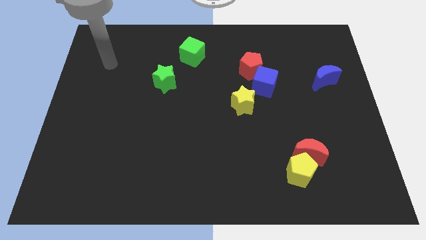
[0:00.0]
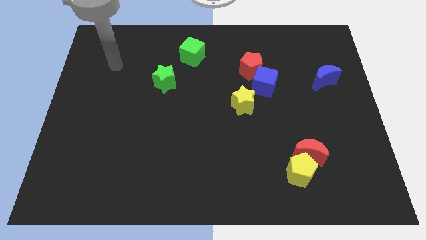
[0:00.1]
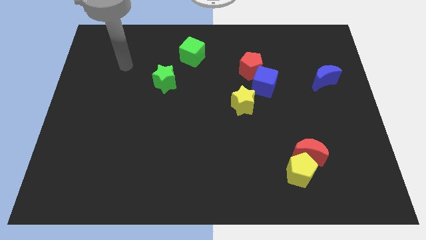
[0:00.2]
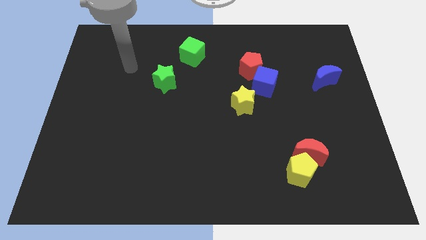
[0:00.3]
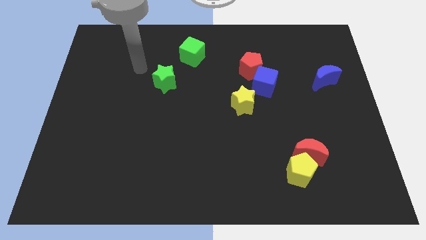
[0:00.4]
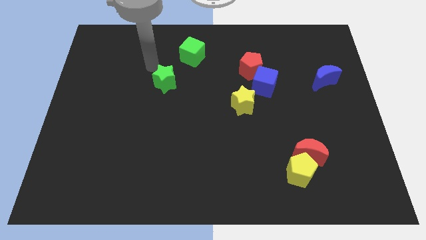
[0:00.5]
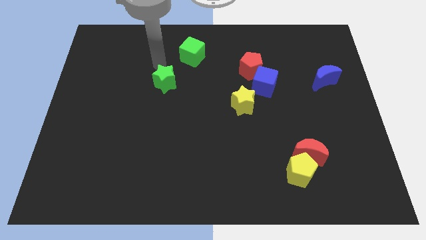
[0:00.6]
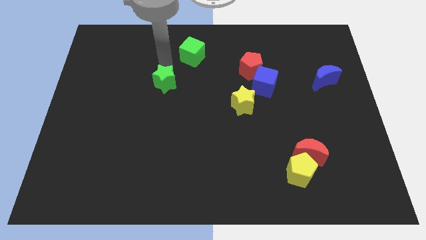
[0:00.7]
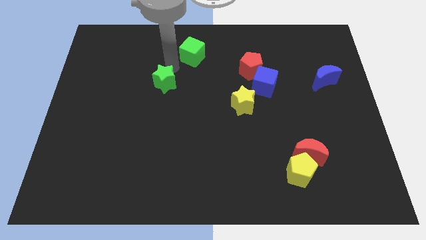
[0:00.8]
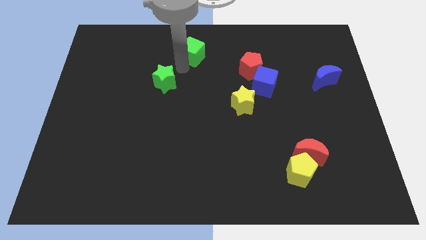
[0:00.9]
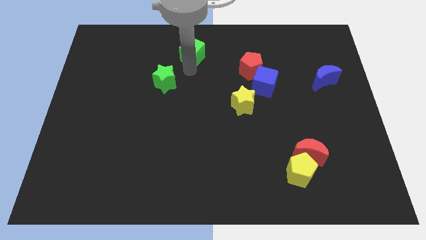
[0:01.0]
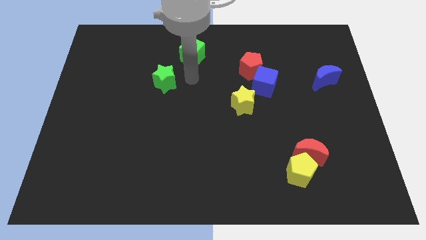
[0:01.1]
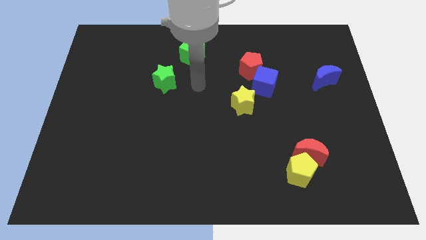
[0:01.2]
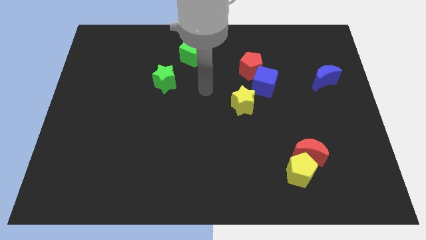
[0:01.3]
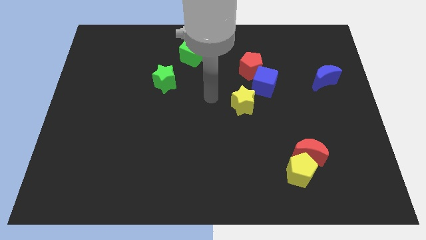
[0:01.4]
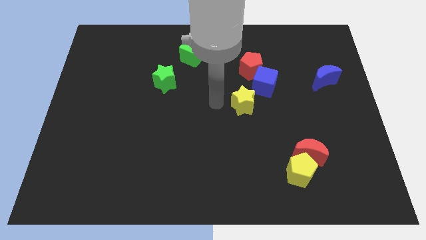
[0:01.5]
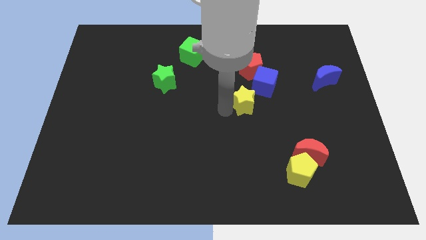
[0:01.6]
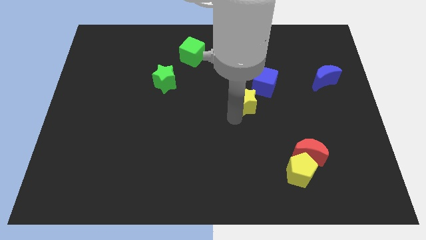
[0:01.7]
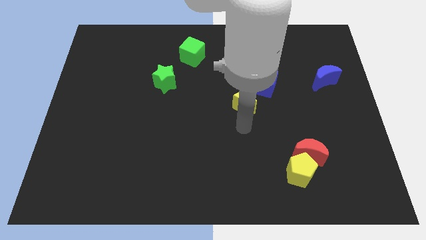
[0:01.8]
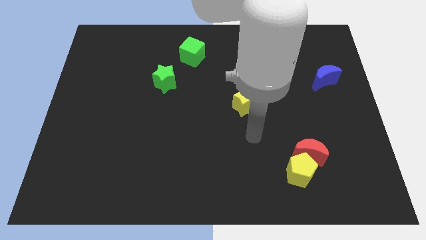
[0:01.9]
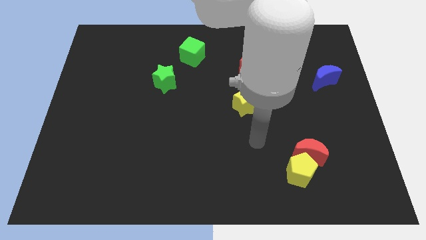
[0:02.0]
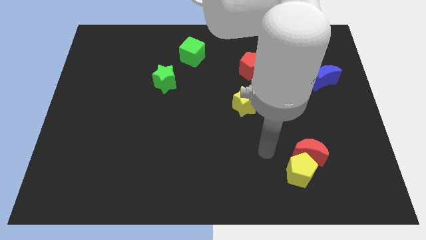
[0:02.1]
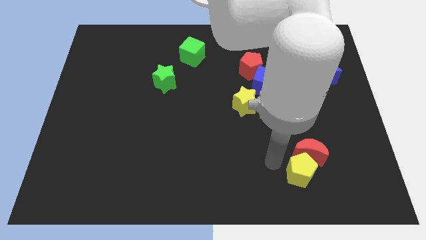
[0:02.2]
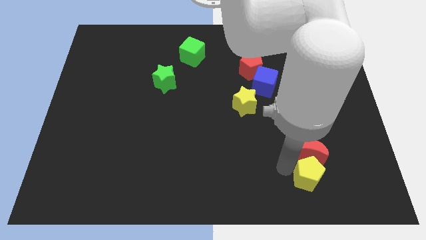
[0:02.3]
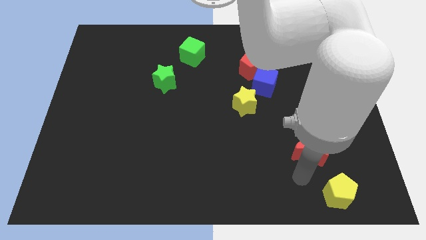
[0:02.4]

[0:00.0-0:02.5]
move the red moon away from the yellow pentagon

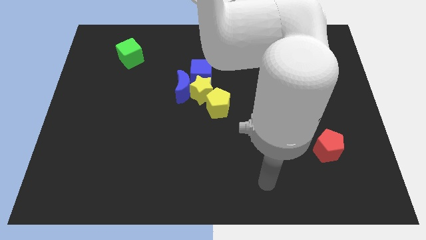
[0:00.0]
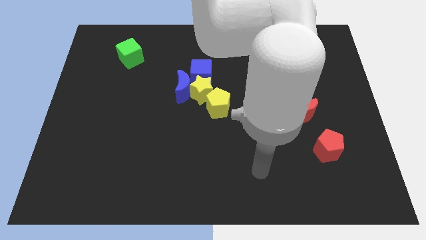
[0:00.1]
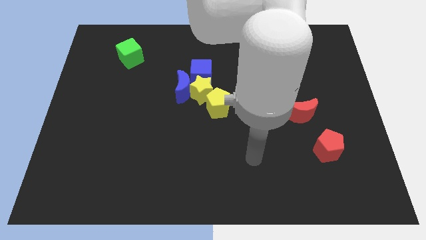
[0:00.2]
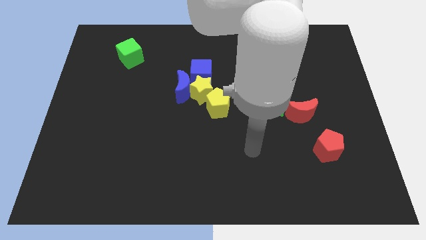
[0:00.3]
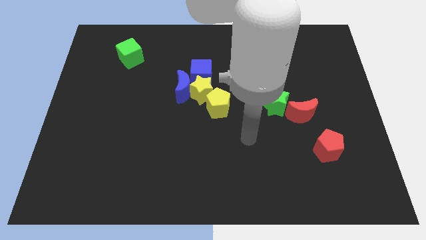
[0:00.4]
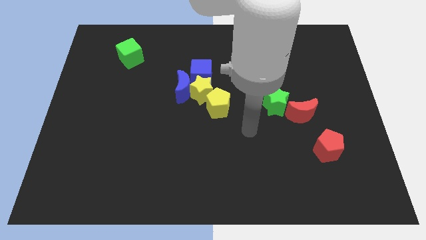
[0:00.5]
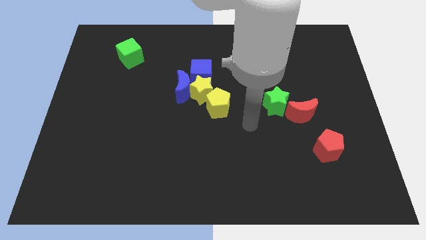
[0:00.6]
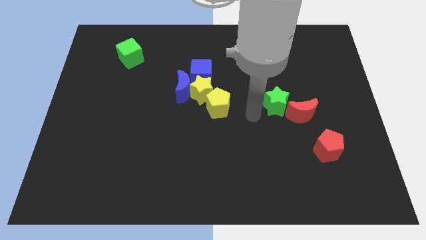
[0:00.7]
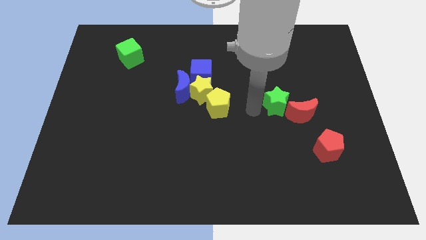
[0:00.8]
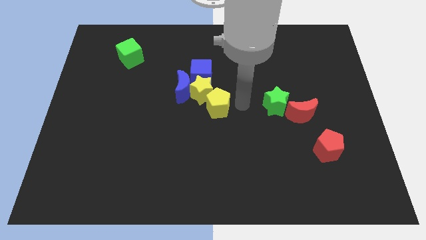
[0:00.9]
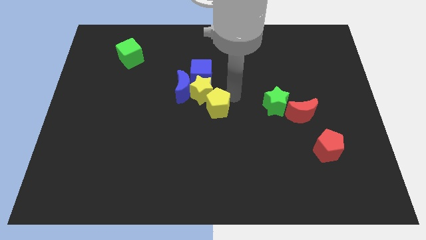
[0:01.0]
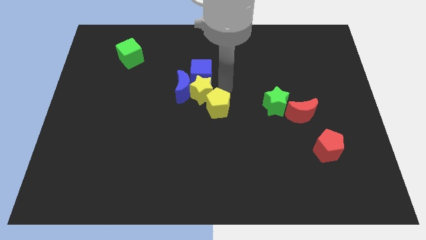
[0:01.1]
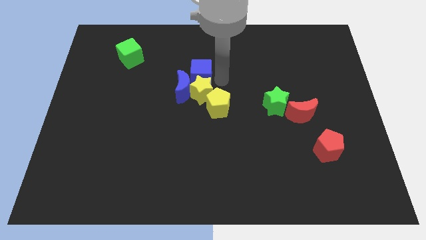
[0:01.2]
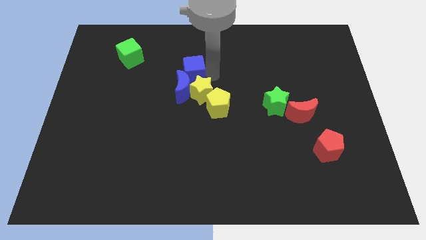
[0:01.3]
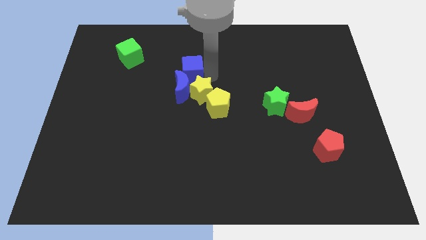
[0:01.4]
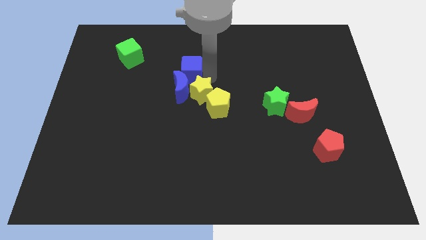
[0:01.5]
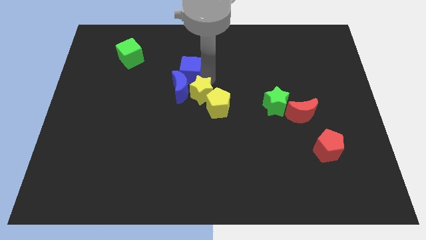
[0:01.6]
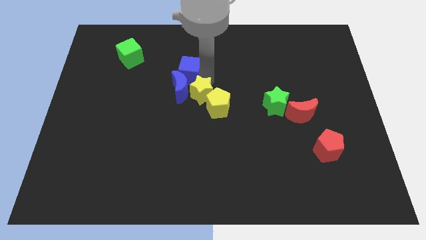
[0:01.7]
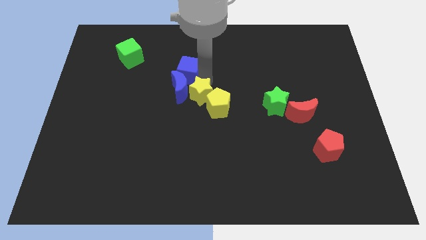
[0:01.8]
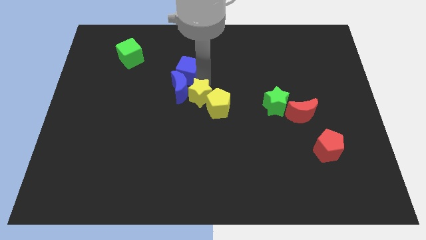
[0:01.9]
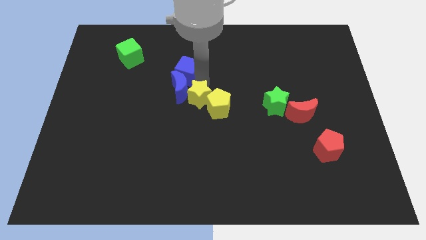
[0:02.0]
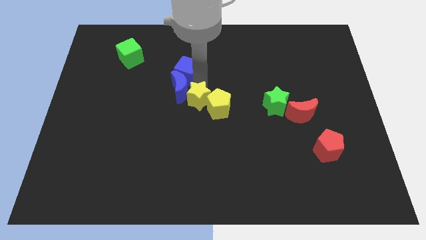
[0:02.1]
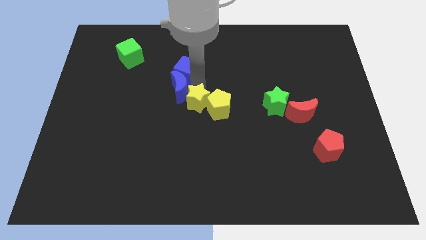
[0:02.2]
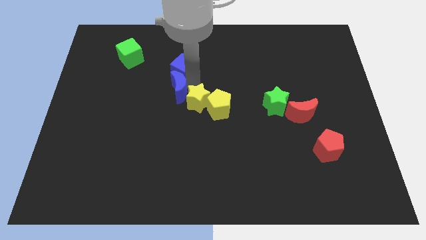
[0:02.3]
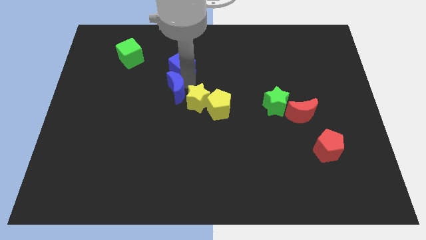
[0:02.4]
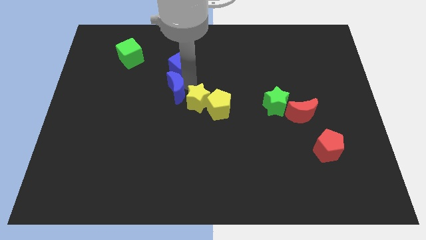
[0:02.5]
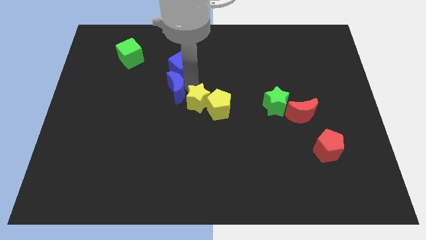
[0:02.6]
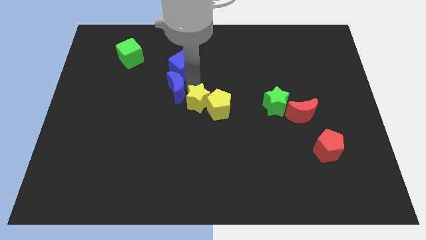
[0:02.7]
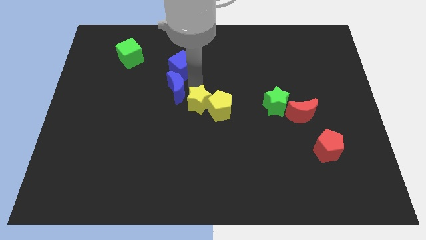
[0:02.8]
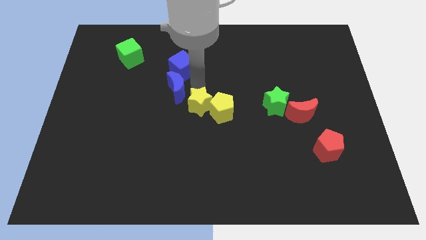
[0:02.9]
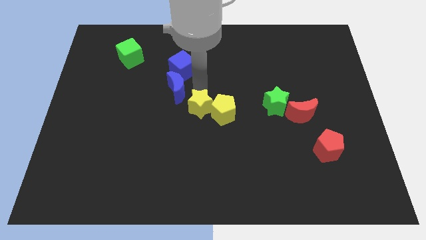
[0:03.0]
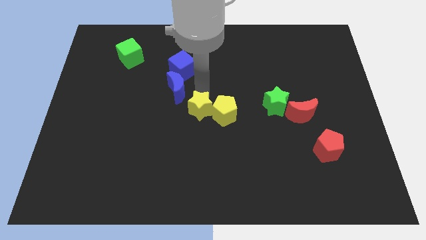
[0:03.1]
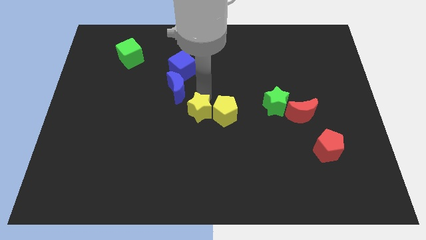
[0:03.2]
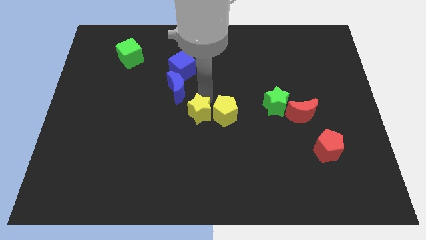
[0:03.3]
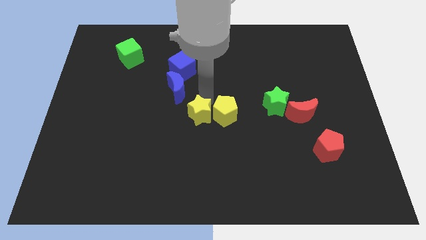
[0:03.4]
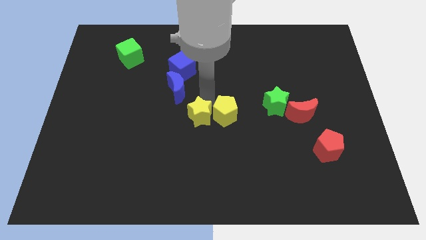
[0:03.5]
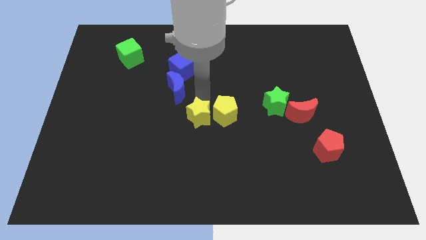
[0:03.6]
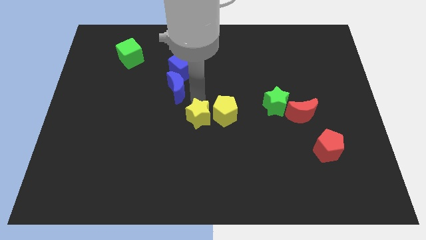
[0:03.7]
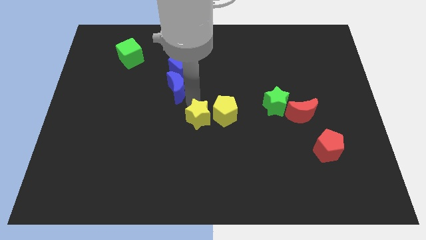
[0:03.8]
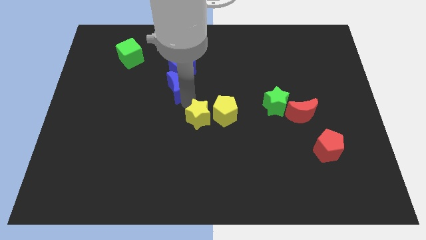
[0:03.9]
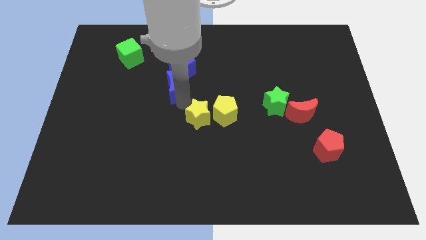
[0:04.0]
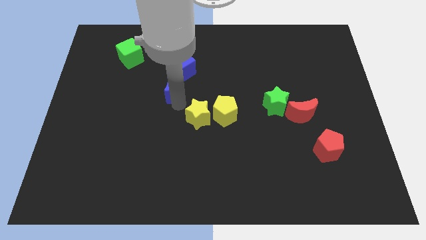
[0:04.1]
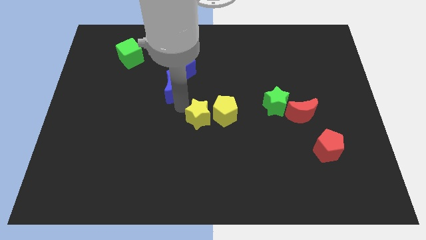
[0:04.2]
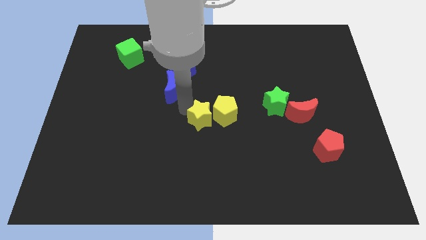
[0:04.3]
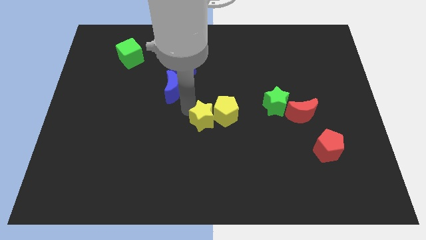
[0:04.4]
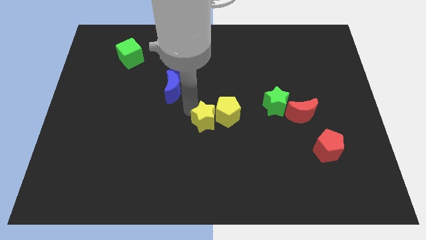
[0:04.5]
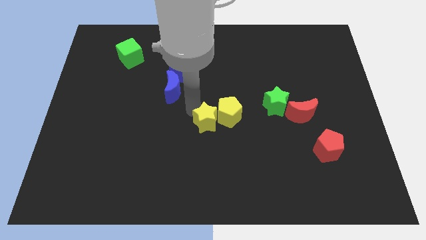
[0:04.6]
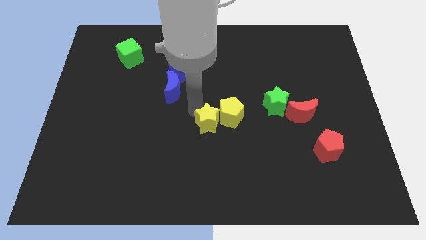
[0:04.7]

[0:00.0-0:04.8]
pull the yellow star apart from the blue moon, blue cube, and yellow pentagon

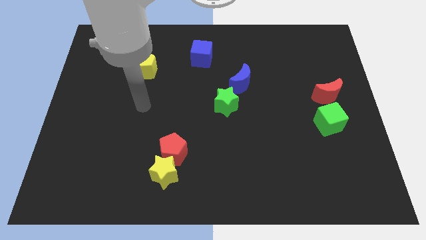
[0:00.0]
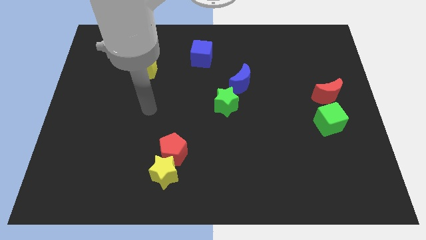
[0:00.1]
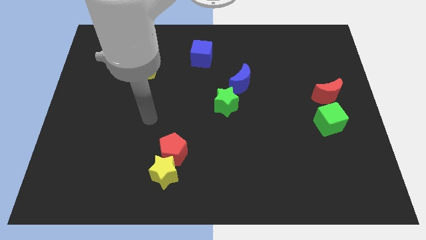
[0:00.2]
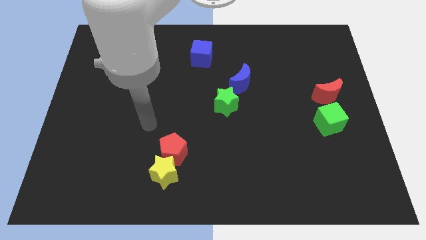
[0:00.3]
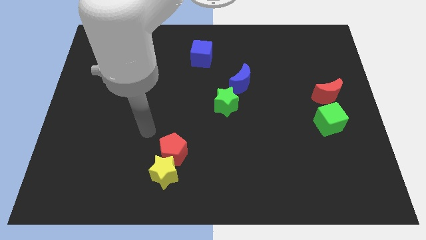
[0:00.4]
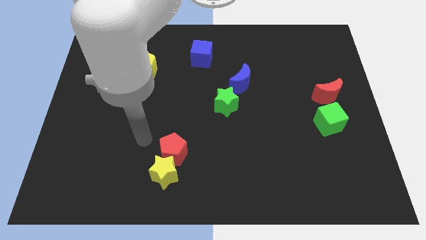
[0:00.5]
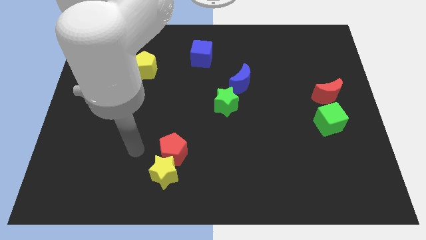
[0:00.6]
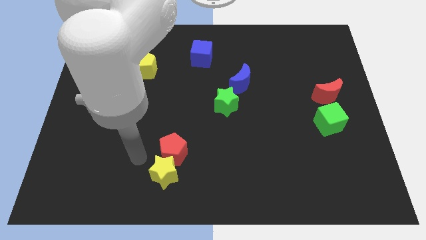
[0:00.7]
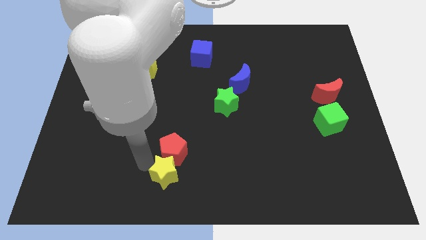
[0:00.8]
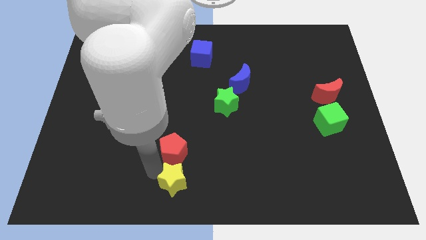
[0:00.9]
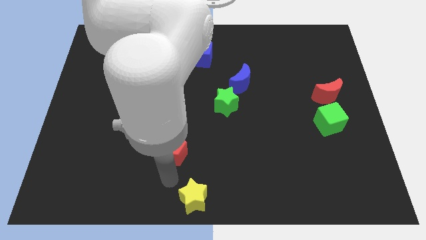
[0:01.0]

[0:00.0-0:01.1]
move the red pentagon away from the yellow star

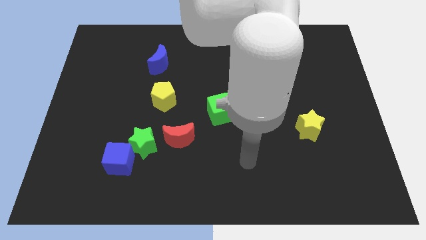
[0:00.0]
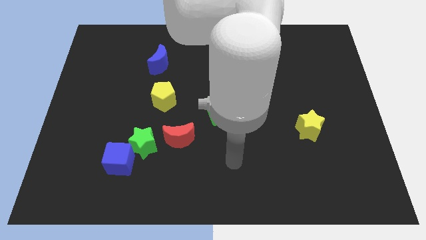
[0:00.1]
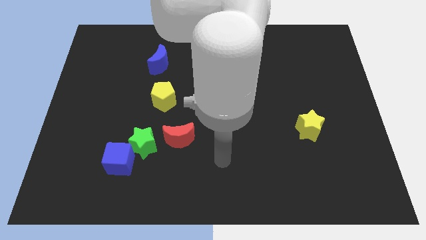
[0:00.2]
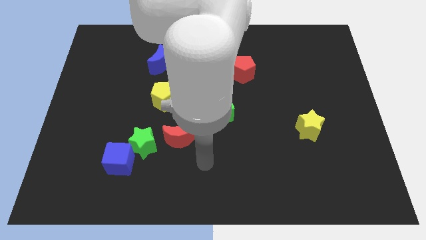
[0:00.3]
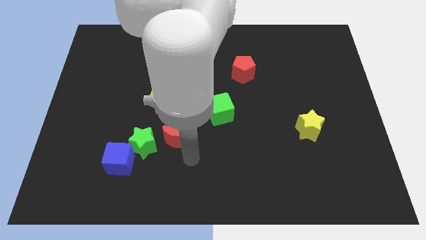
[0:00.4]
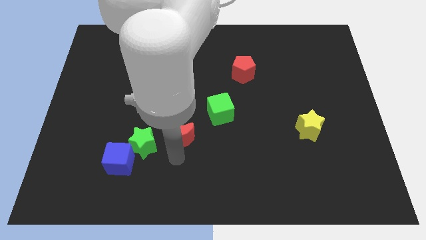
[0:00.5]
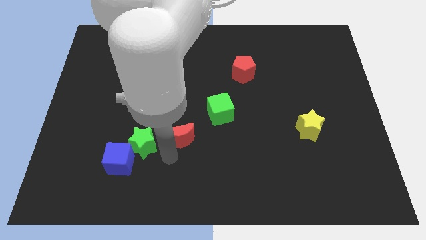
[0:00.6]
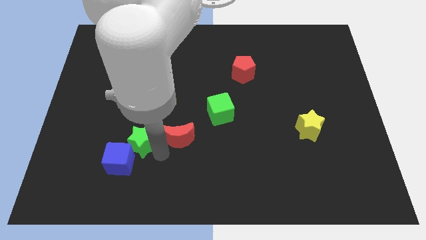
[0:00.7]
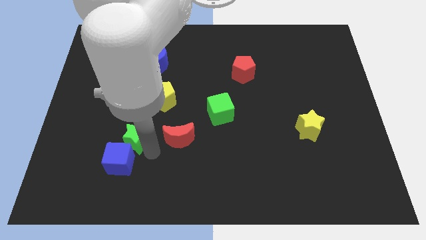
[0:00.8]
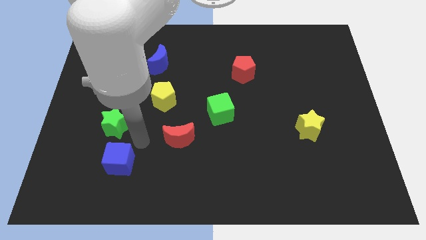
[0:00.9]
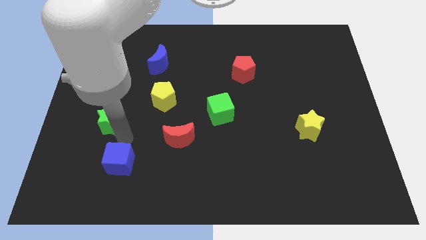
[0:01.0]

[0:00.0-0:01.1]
pull the blue cube apart from the green star
